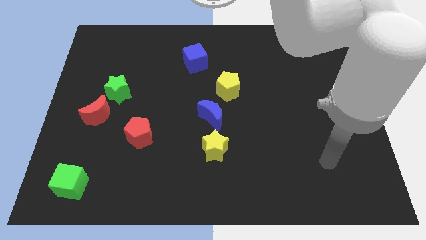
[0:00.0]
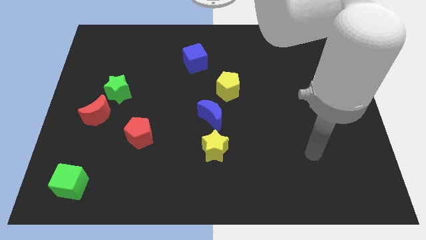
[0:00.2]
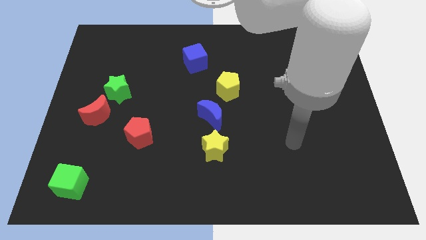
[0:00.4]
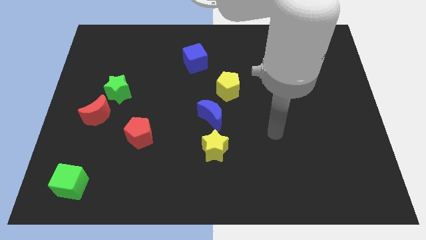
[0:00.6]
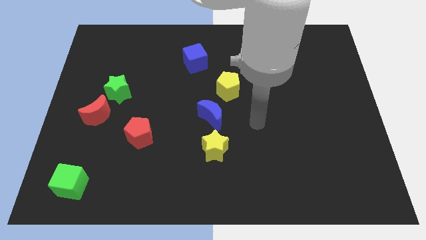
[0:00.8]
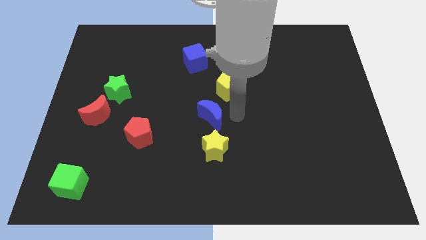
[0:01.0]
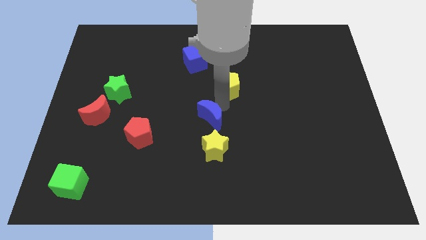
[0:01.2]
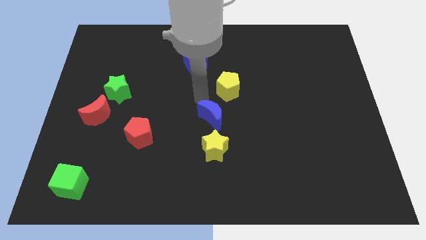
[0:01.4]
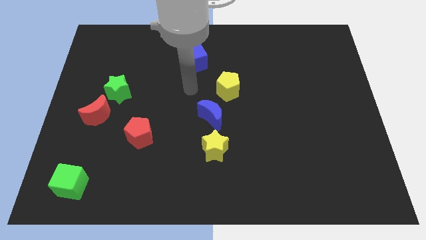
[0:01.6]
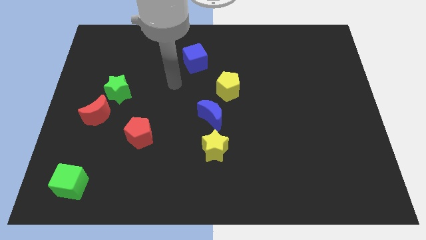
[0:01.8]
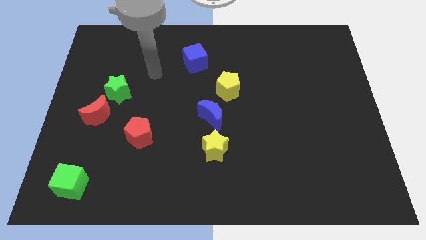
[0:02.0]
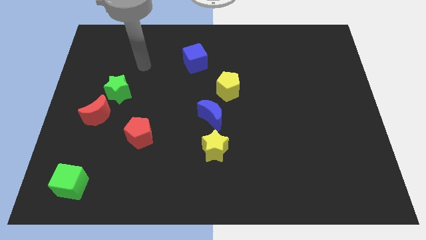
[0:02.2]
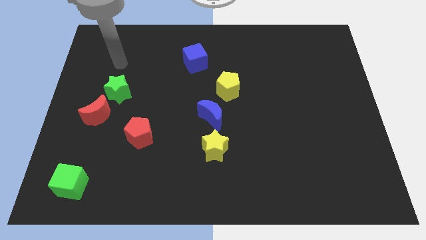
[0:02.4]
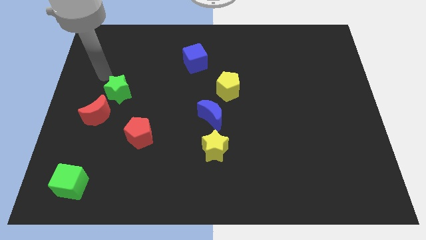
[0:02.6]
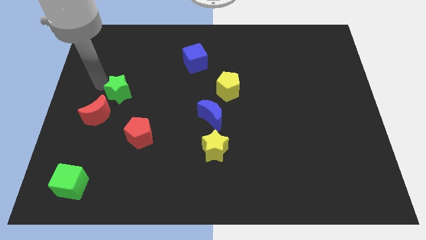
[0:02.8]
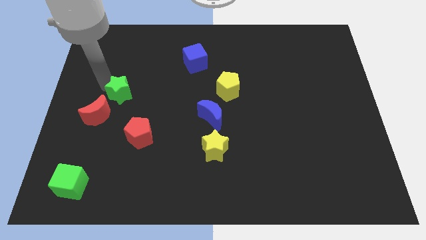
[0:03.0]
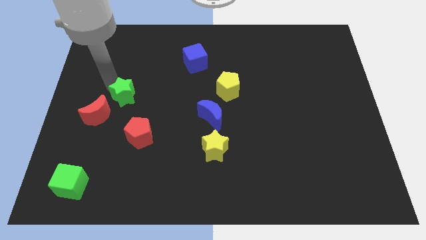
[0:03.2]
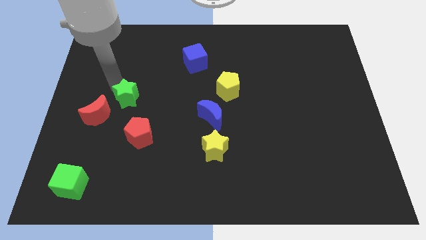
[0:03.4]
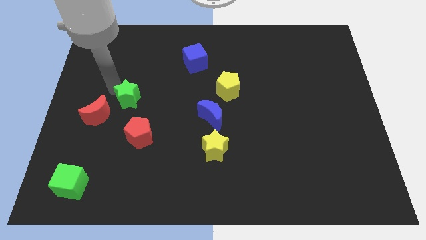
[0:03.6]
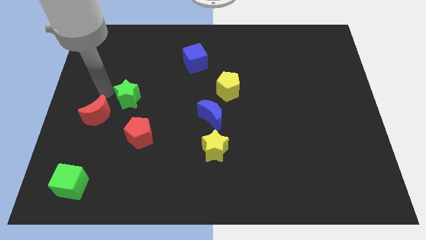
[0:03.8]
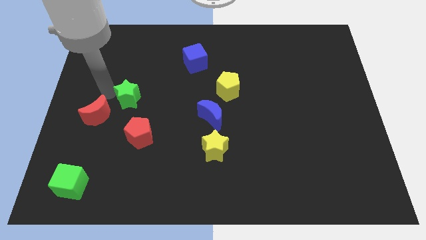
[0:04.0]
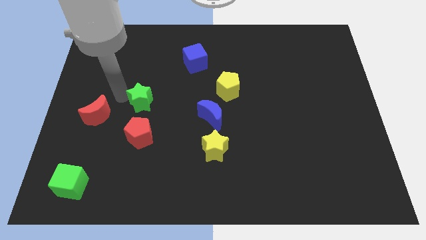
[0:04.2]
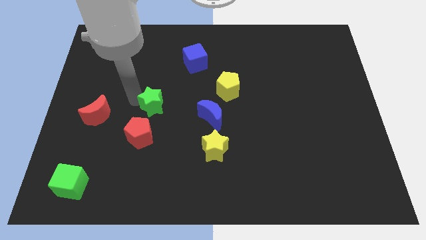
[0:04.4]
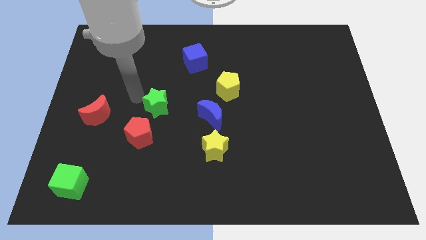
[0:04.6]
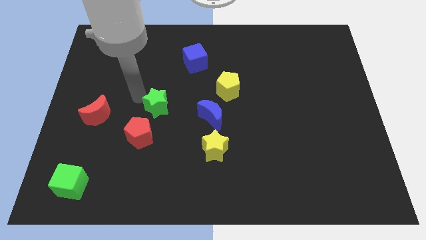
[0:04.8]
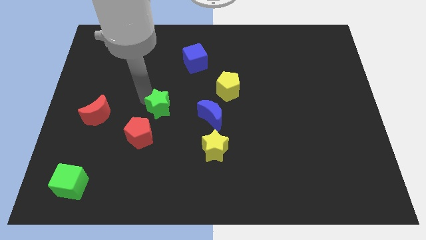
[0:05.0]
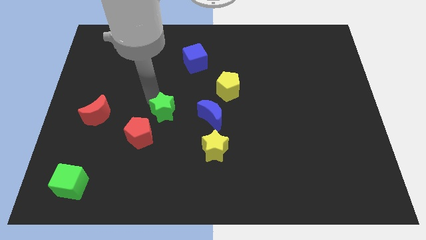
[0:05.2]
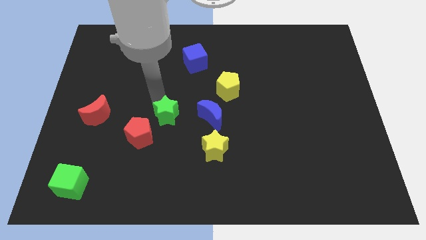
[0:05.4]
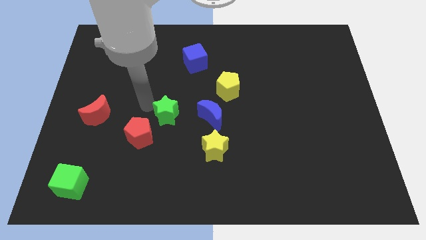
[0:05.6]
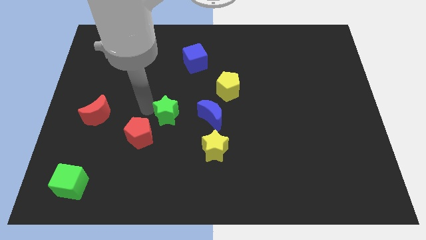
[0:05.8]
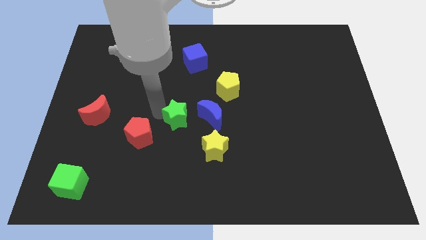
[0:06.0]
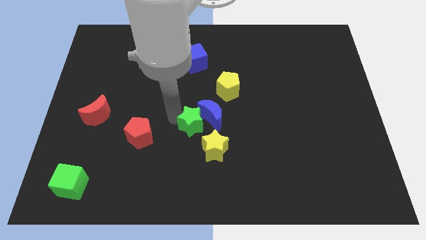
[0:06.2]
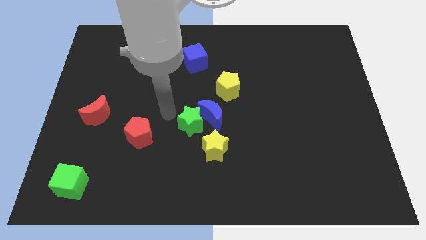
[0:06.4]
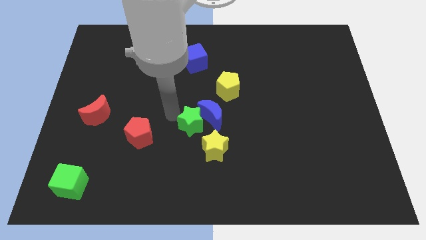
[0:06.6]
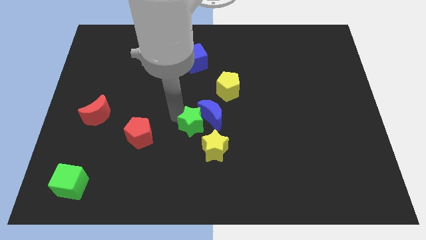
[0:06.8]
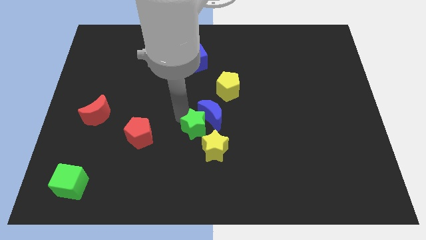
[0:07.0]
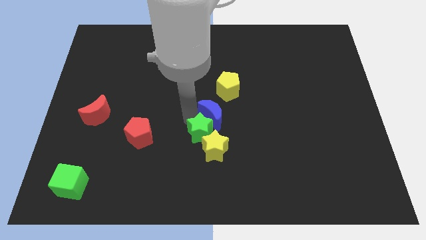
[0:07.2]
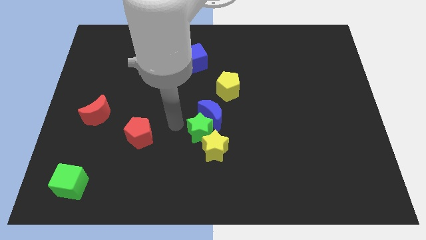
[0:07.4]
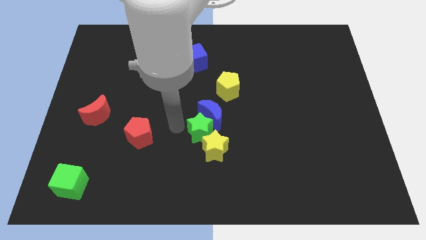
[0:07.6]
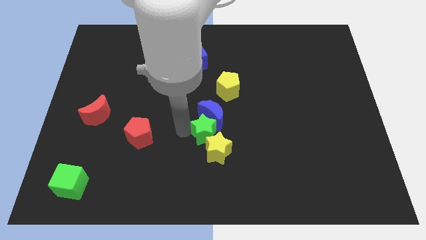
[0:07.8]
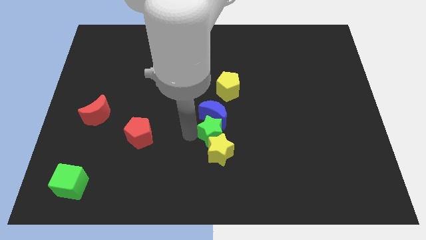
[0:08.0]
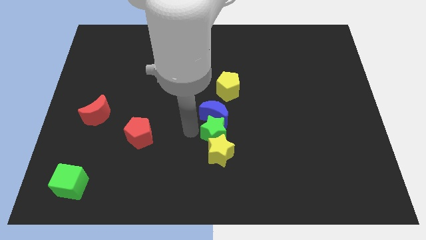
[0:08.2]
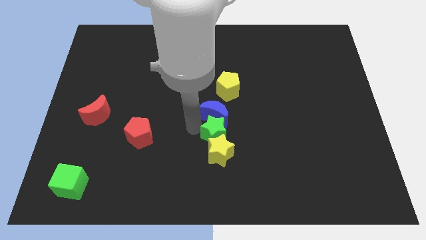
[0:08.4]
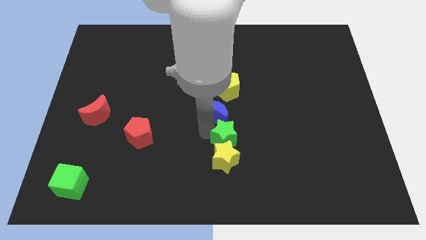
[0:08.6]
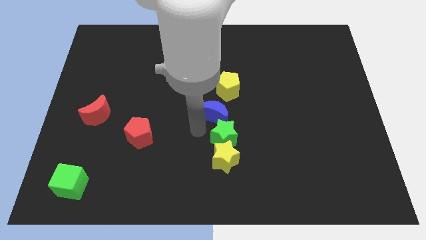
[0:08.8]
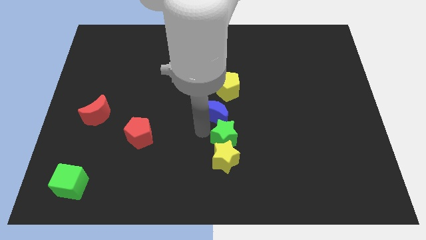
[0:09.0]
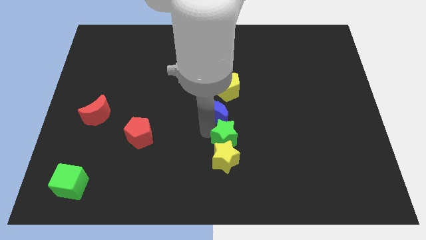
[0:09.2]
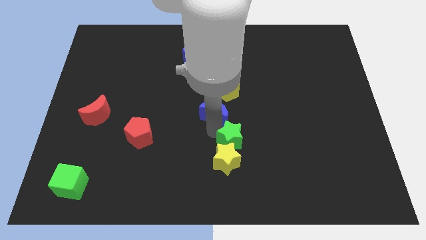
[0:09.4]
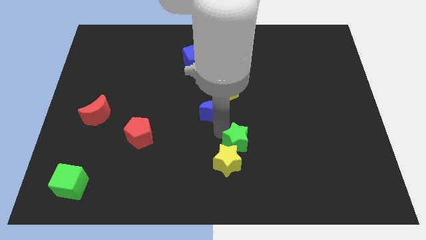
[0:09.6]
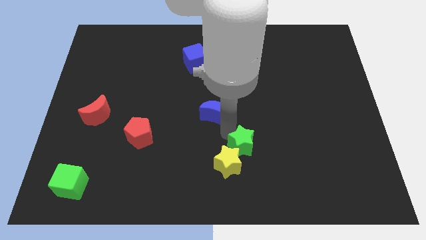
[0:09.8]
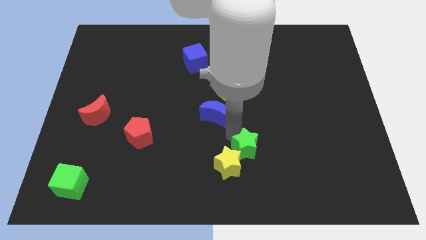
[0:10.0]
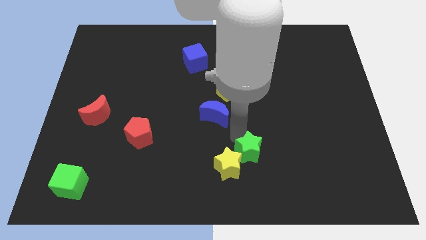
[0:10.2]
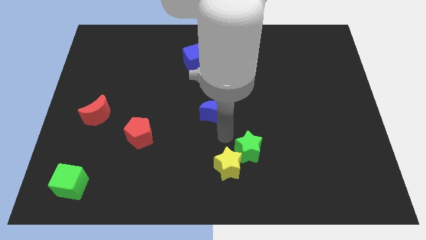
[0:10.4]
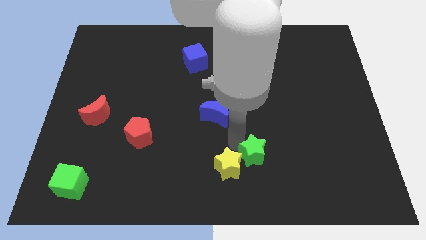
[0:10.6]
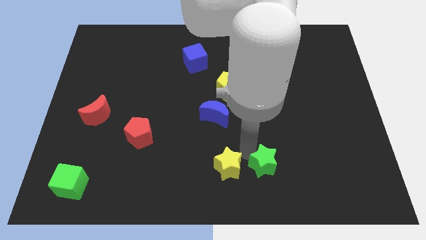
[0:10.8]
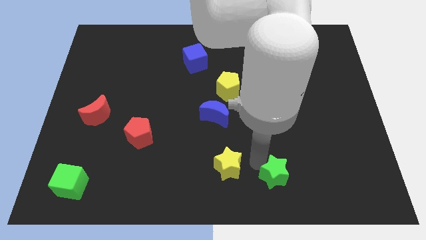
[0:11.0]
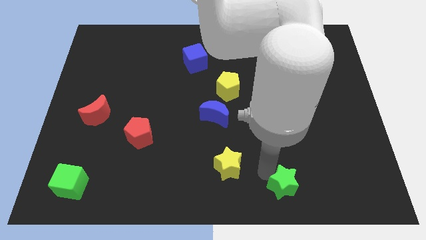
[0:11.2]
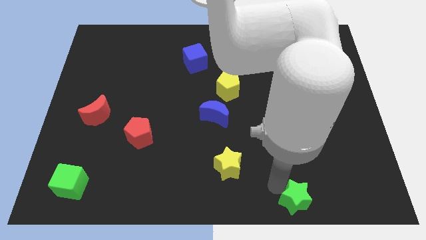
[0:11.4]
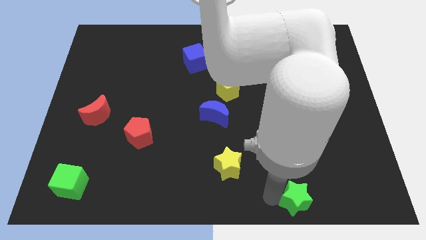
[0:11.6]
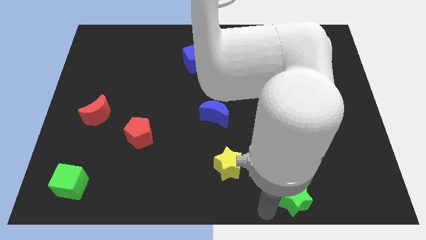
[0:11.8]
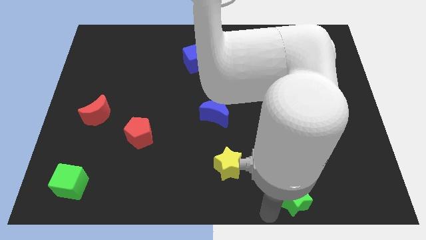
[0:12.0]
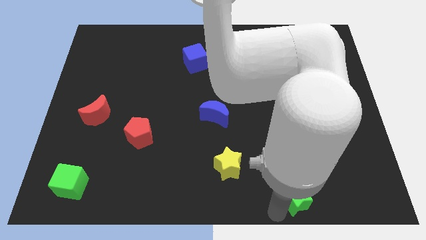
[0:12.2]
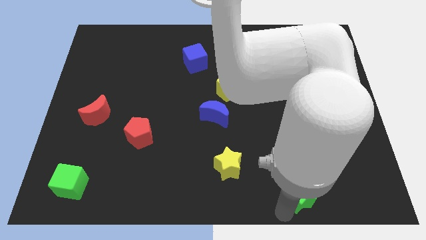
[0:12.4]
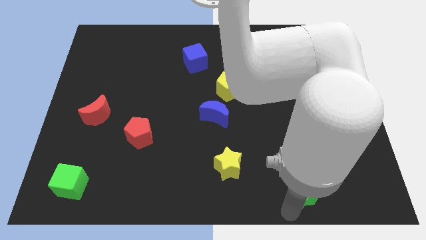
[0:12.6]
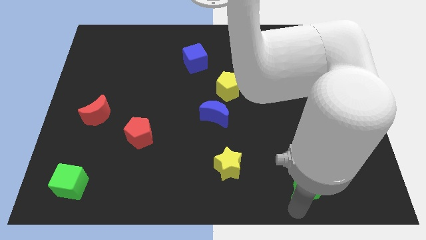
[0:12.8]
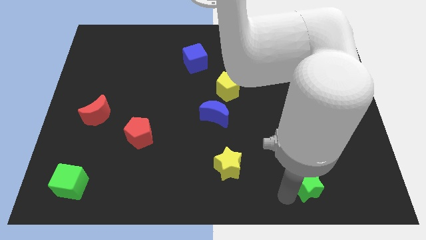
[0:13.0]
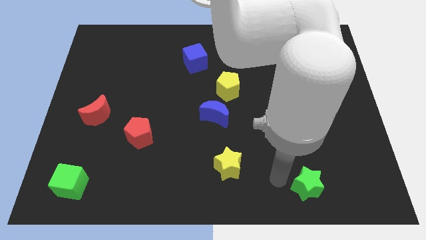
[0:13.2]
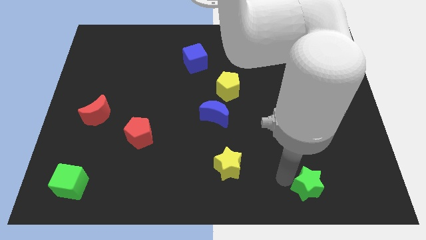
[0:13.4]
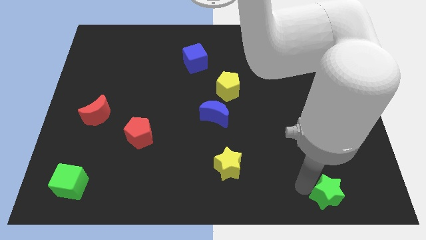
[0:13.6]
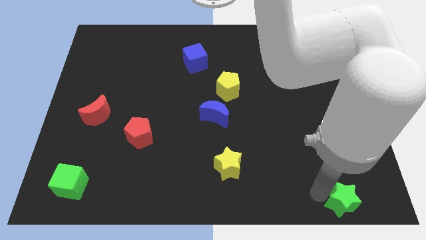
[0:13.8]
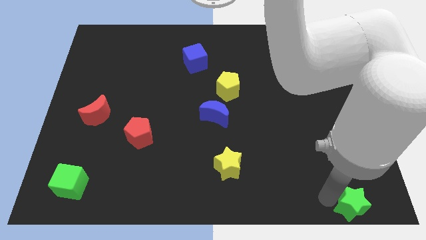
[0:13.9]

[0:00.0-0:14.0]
put the green star to the bottom right
